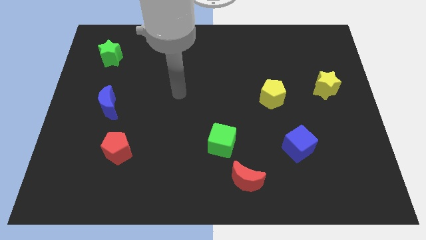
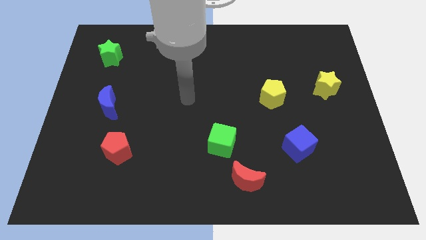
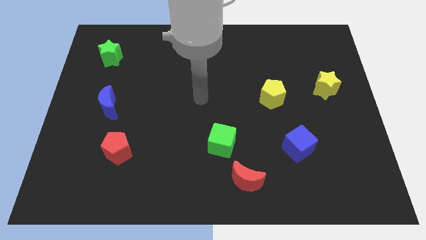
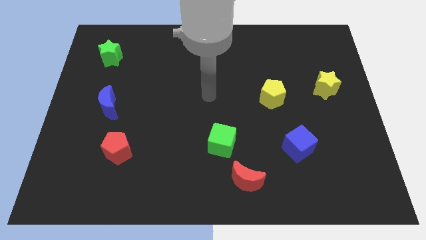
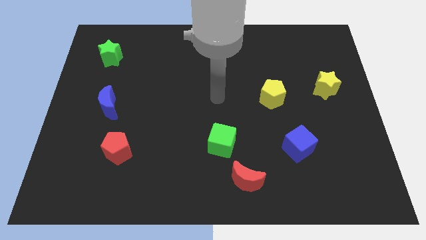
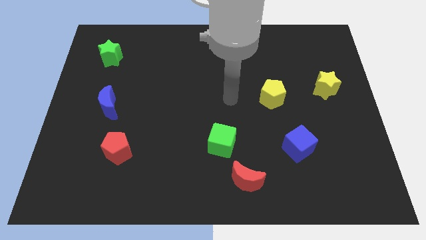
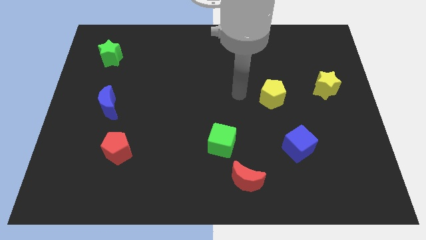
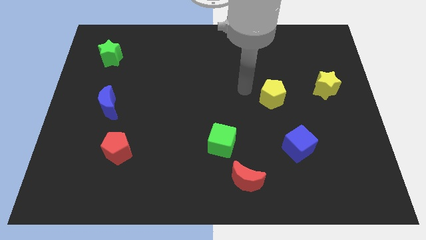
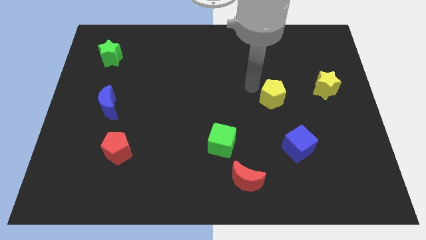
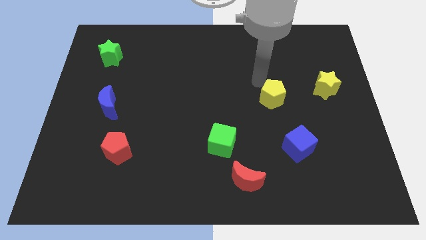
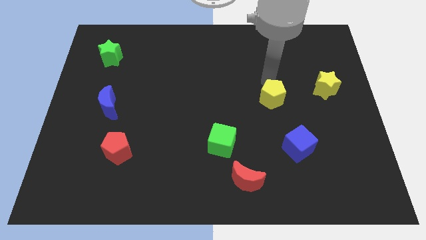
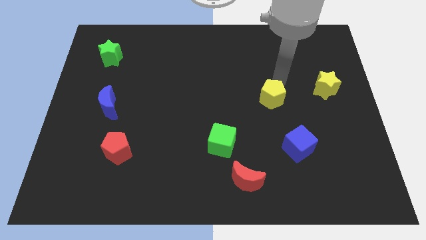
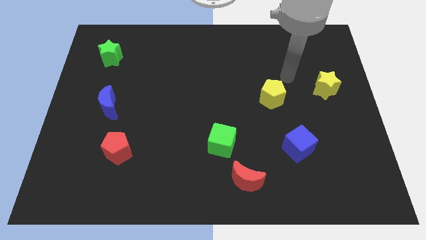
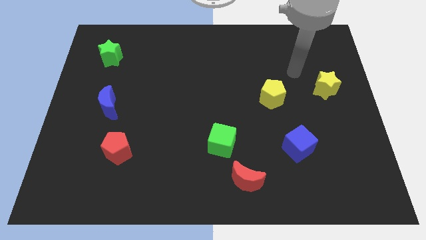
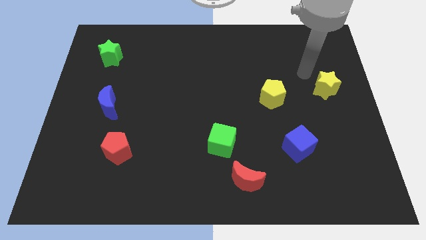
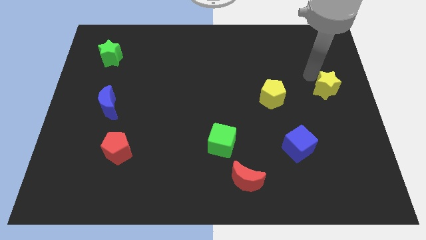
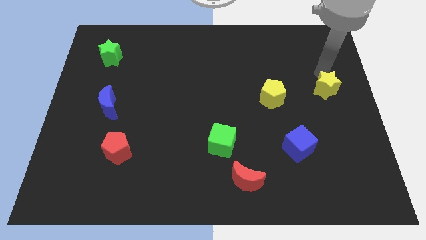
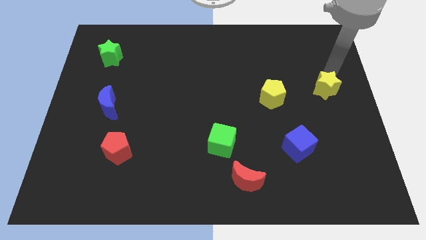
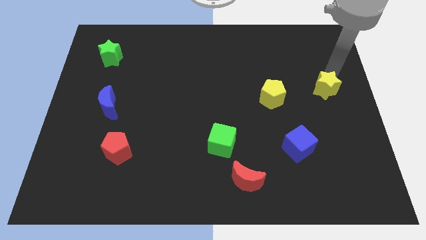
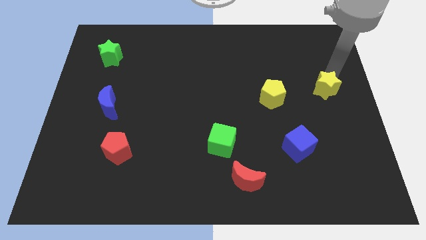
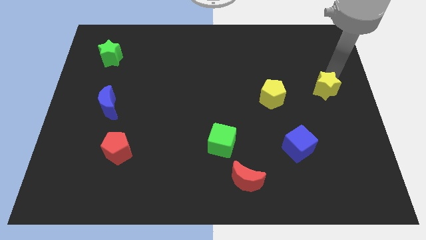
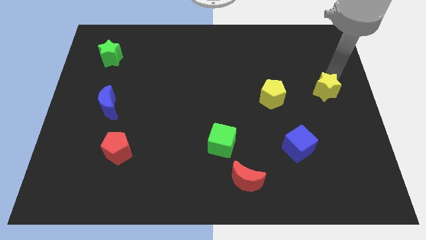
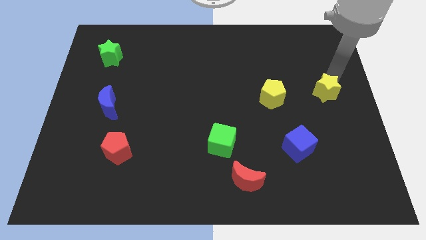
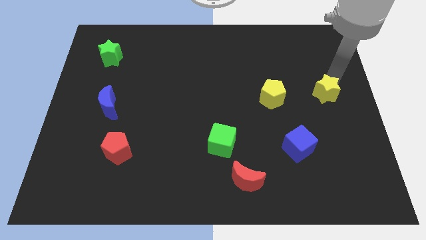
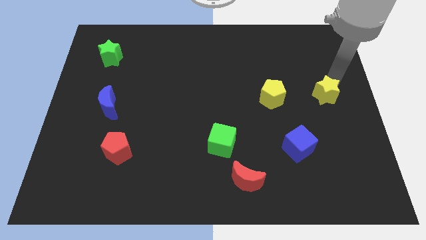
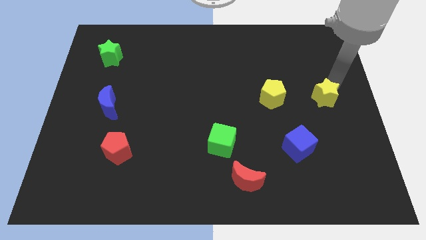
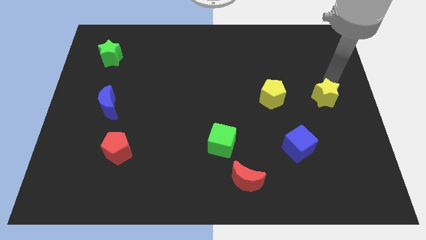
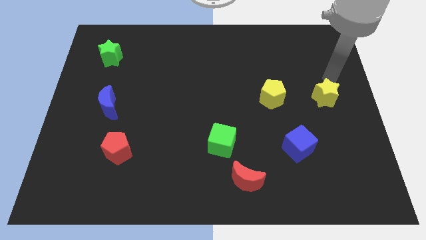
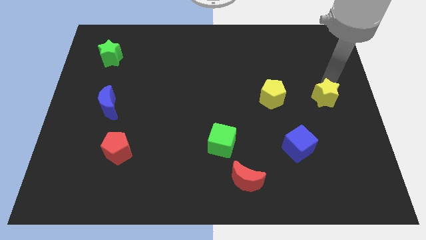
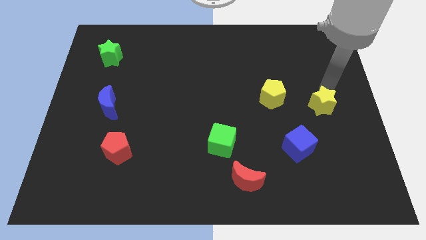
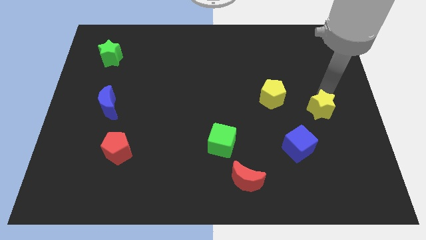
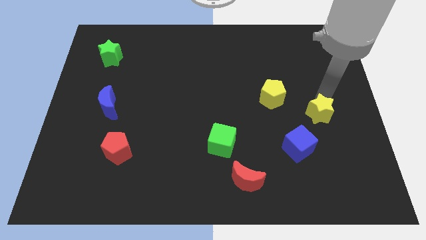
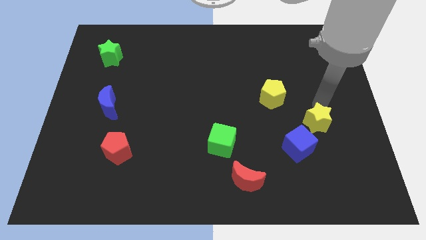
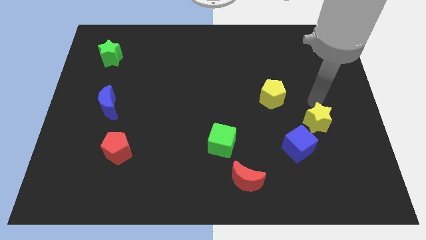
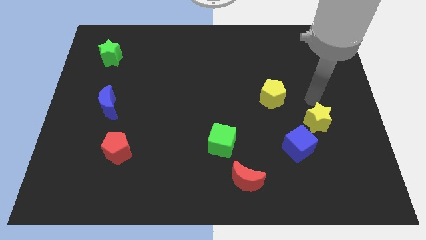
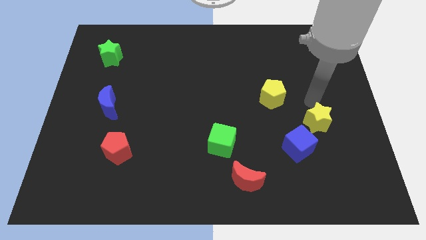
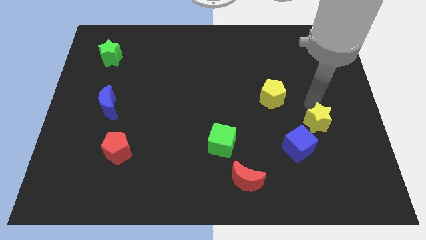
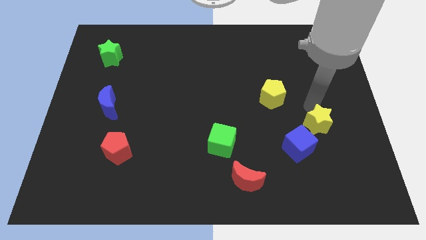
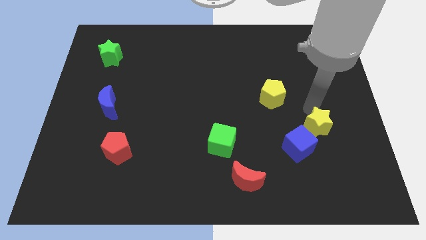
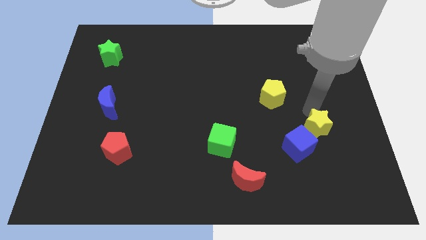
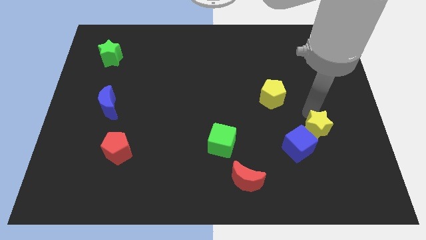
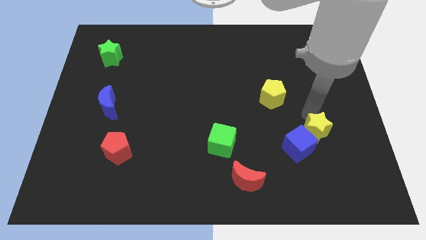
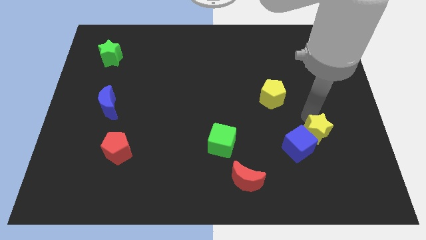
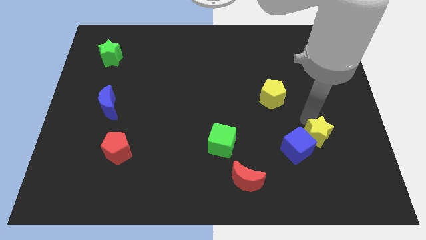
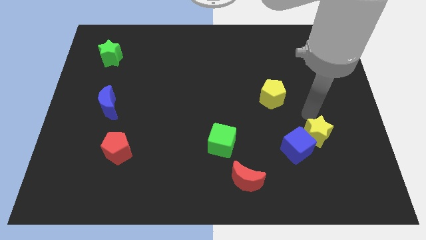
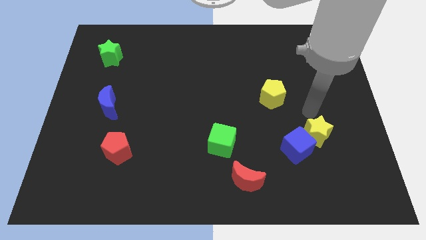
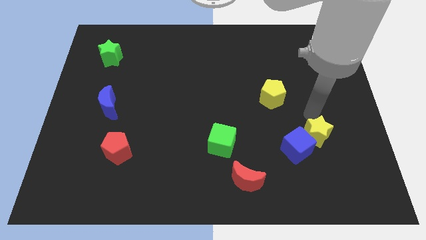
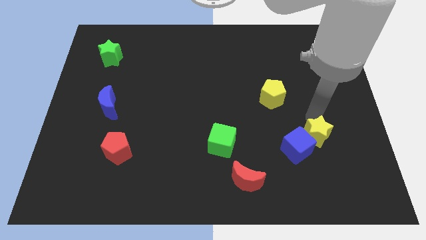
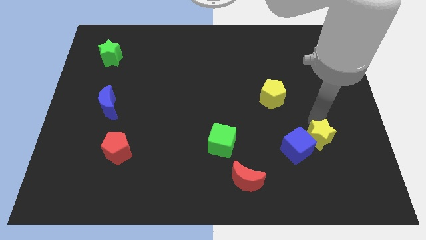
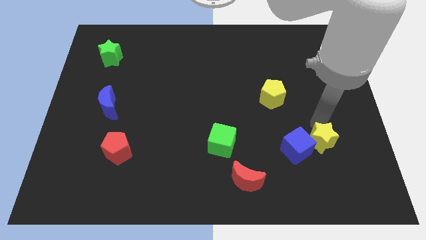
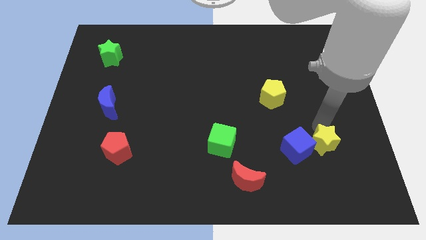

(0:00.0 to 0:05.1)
put the yellow star to the bottom right of the blue cube

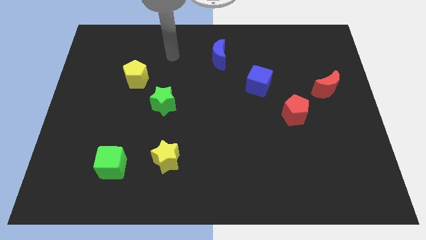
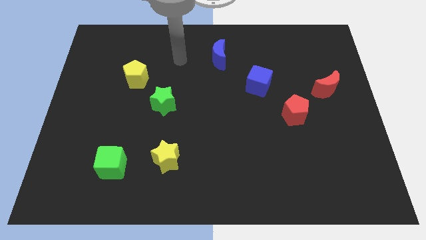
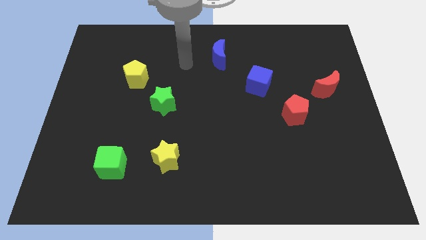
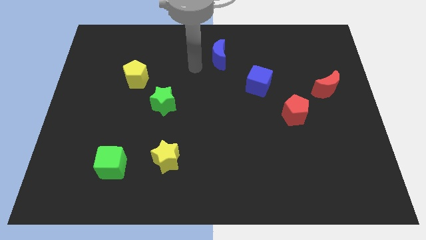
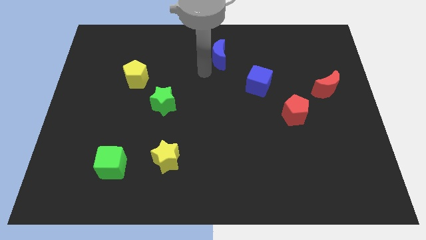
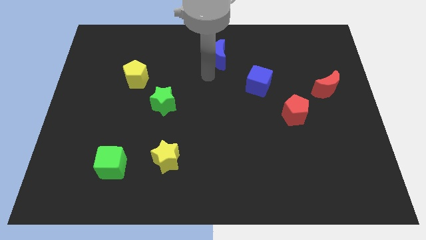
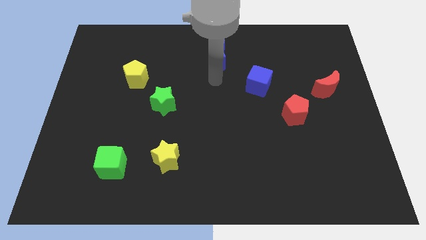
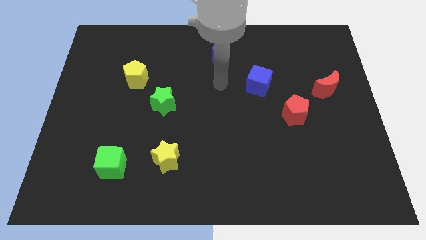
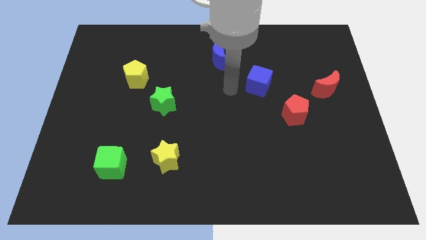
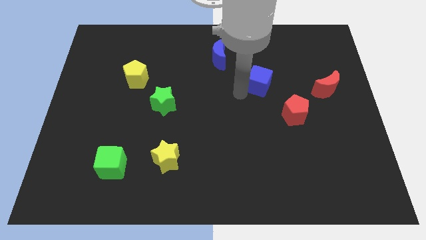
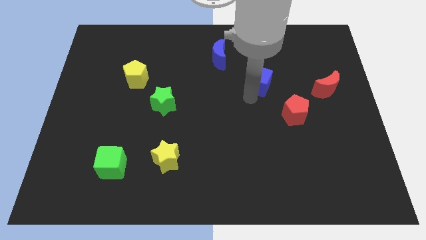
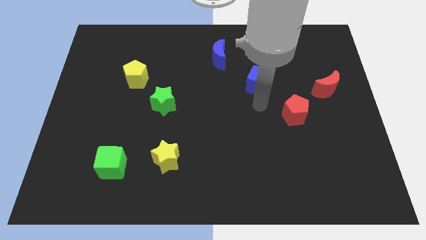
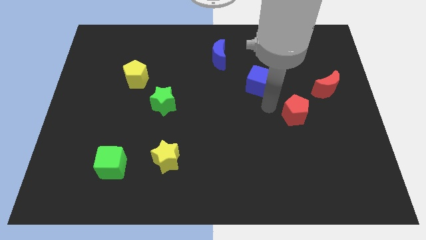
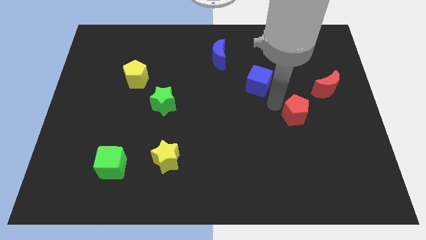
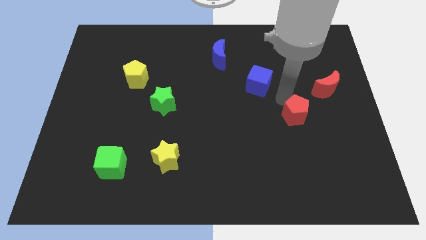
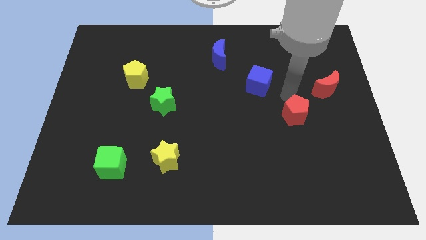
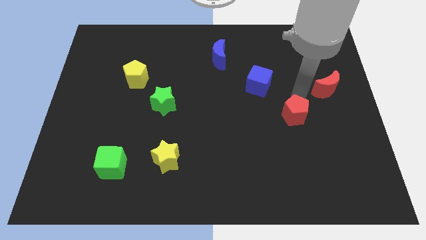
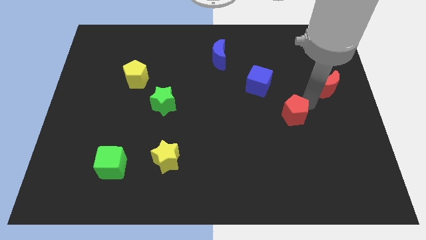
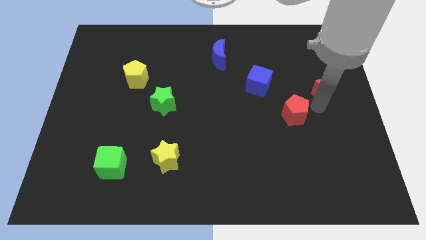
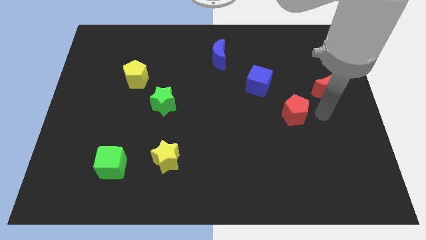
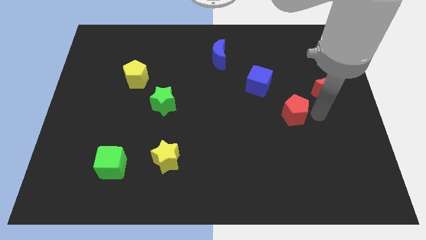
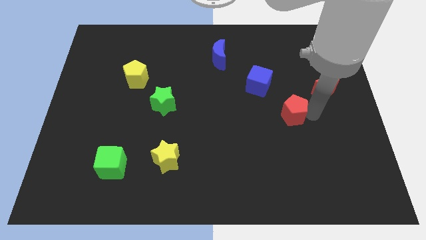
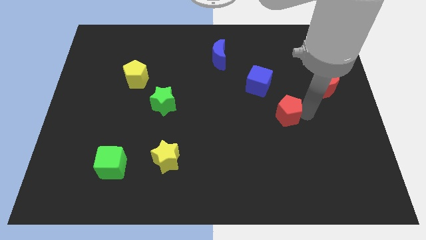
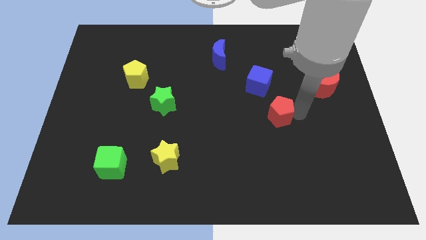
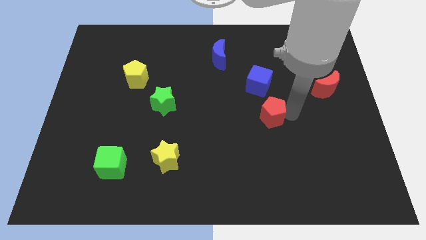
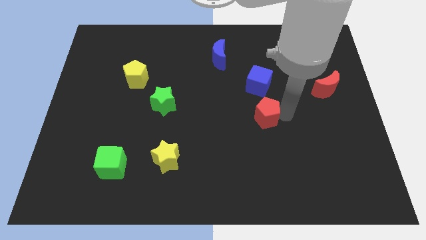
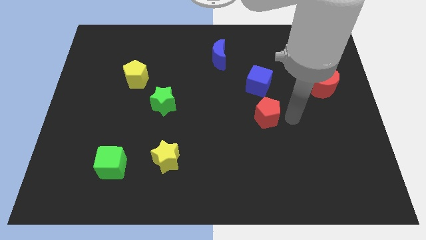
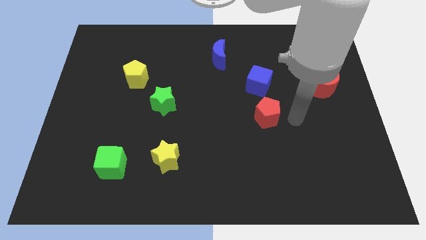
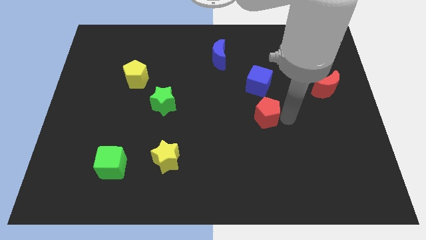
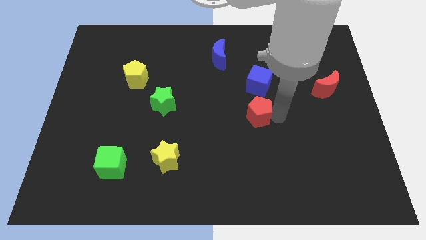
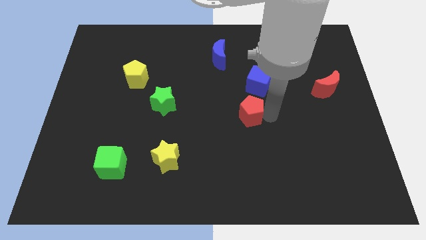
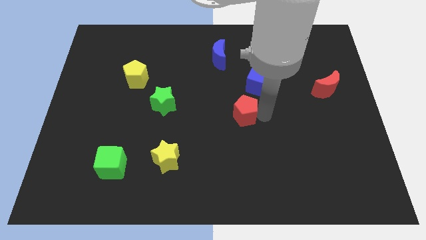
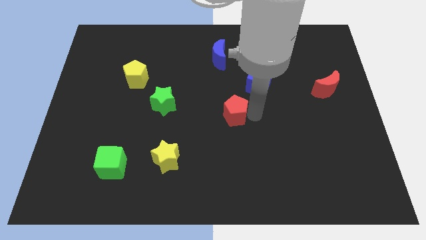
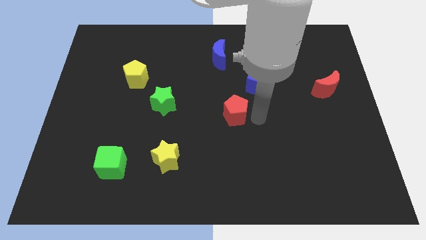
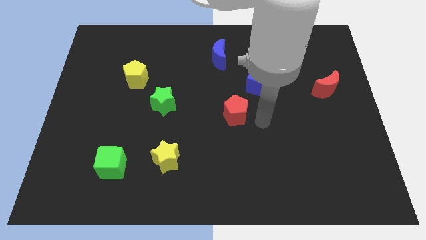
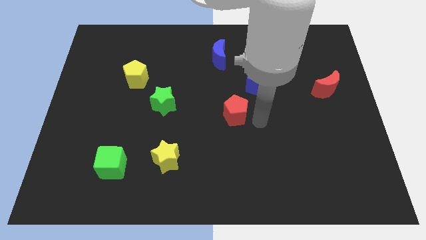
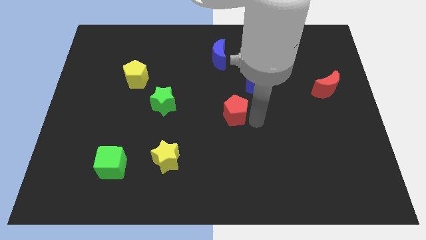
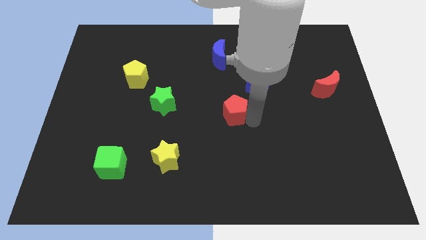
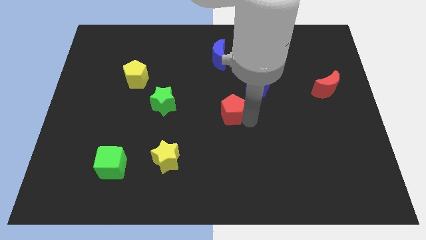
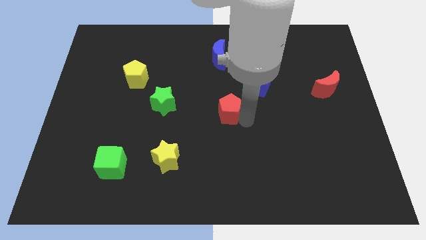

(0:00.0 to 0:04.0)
slide the red pentagon to the right side of the green star
